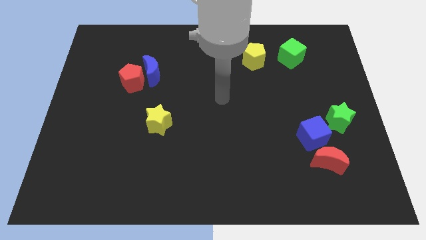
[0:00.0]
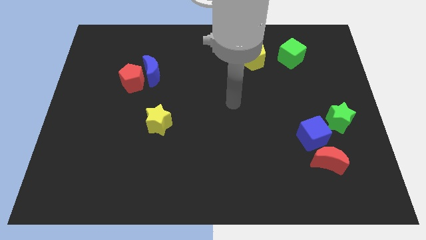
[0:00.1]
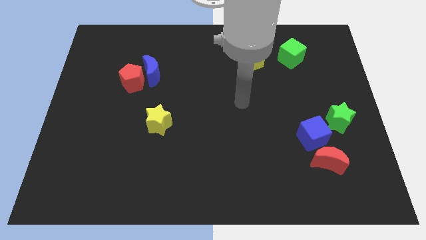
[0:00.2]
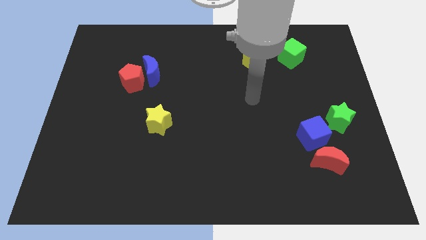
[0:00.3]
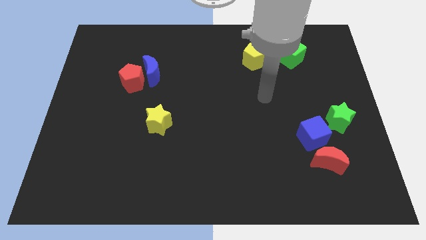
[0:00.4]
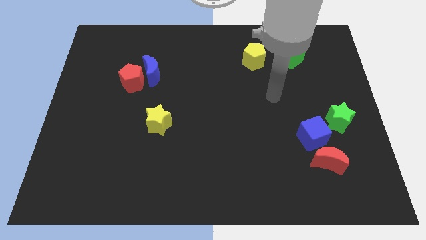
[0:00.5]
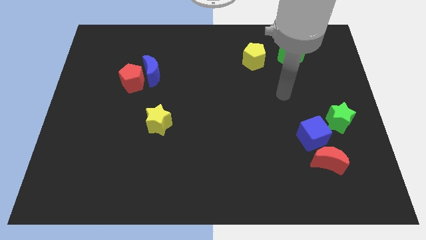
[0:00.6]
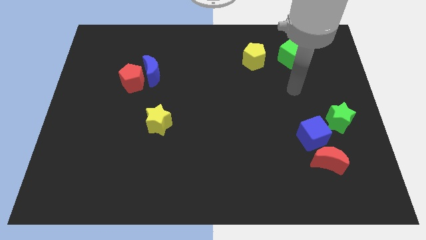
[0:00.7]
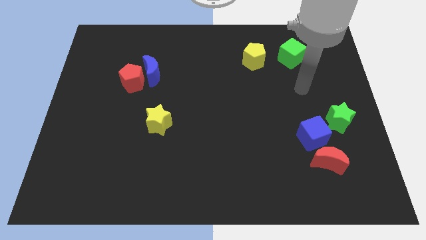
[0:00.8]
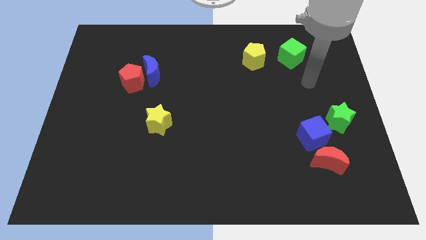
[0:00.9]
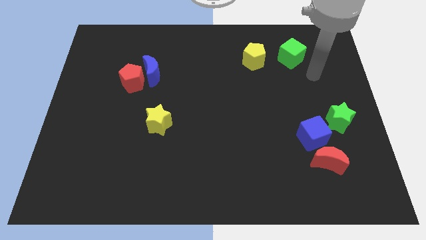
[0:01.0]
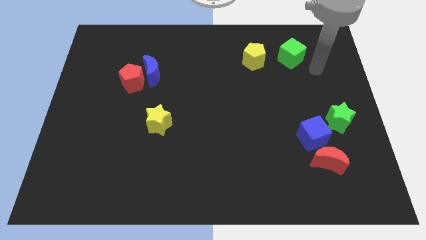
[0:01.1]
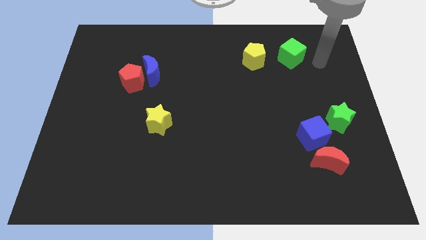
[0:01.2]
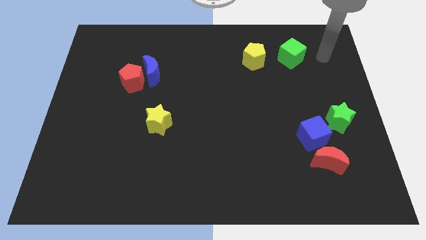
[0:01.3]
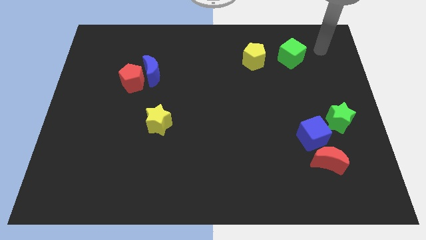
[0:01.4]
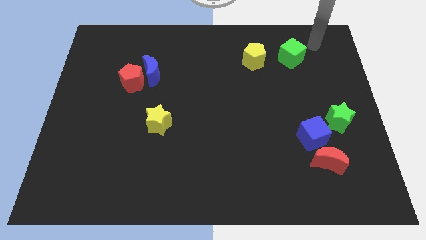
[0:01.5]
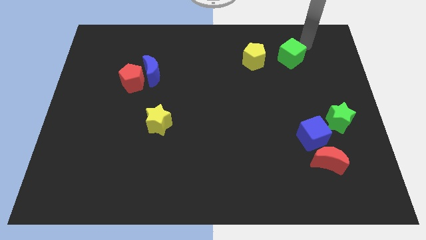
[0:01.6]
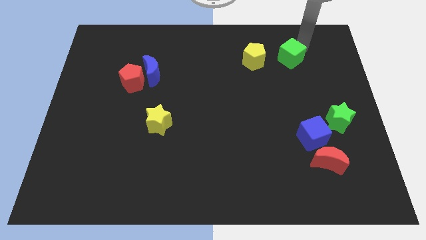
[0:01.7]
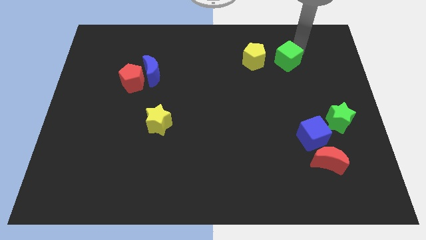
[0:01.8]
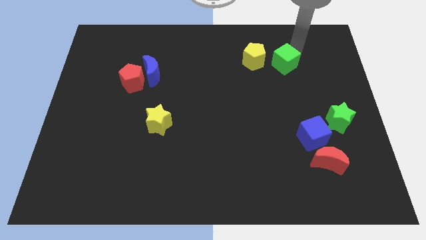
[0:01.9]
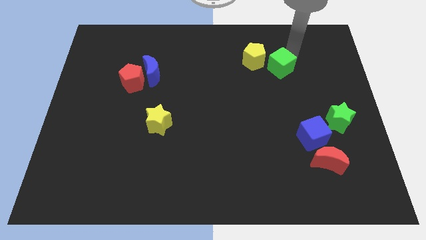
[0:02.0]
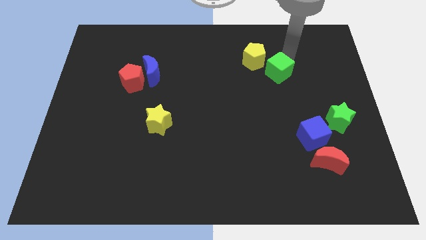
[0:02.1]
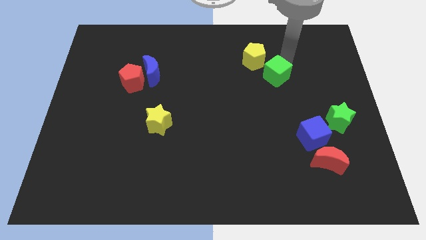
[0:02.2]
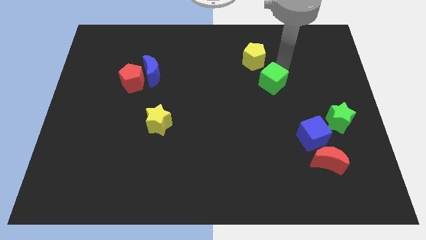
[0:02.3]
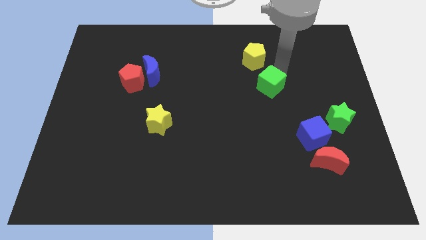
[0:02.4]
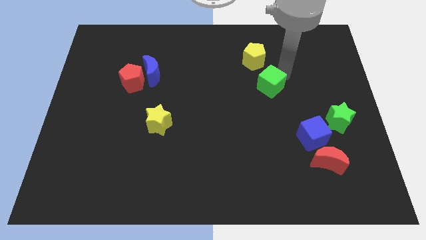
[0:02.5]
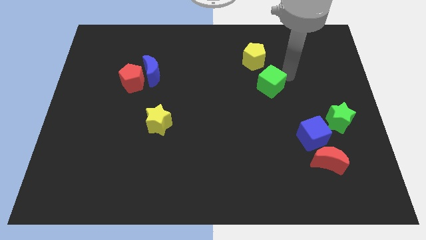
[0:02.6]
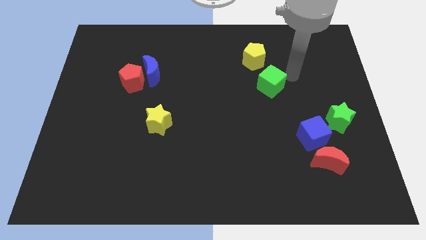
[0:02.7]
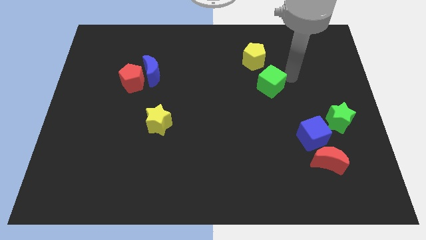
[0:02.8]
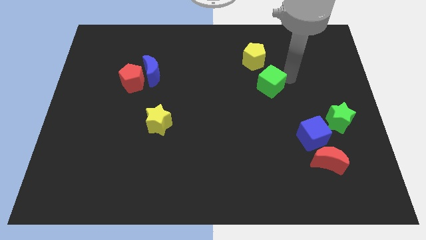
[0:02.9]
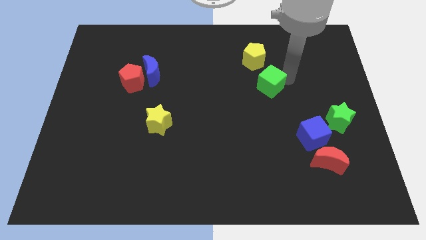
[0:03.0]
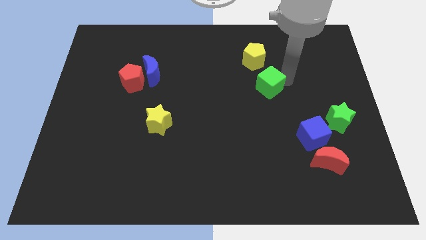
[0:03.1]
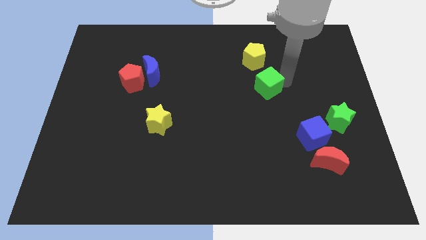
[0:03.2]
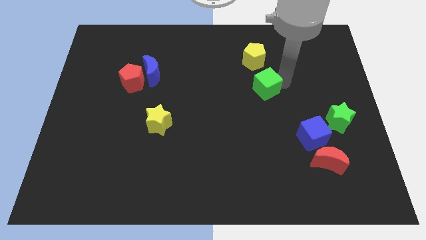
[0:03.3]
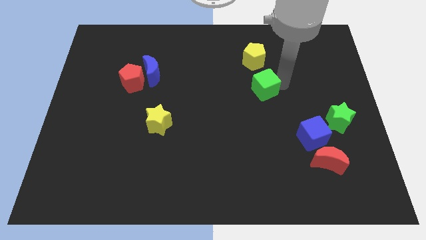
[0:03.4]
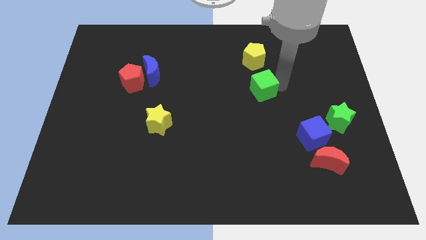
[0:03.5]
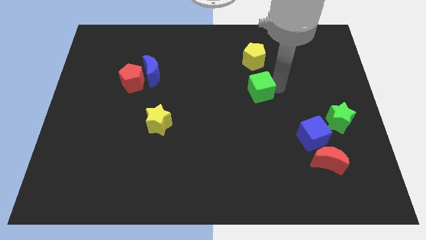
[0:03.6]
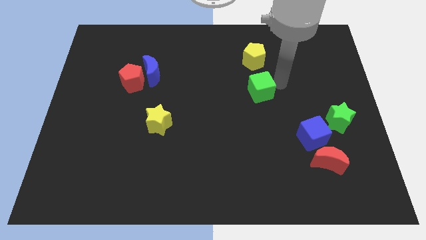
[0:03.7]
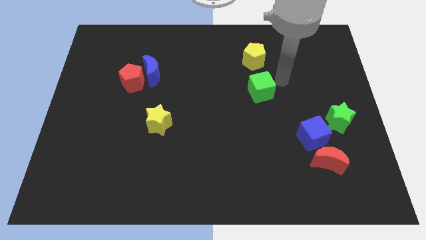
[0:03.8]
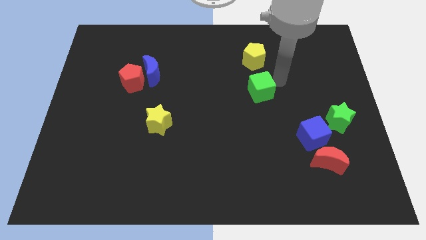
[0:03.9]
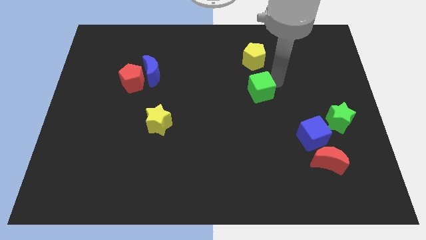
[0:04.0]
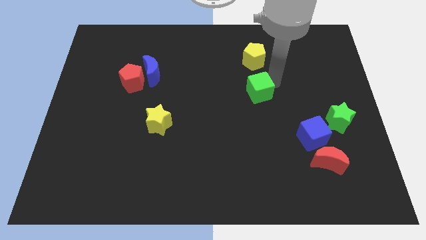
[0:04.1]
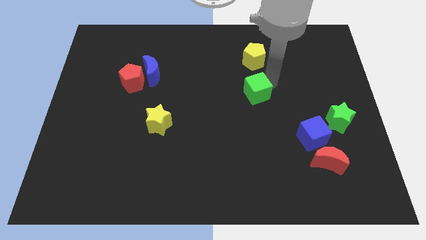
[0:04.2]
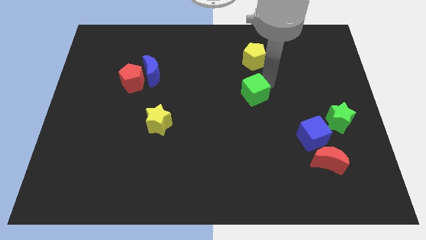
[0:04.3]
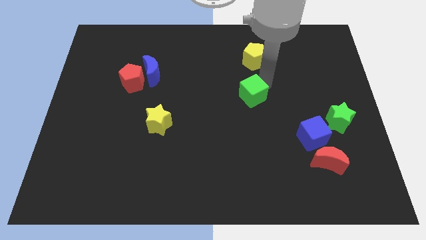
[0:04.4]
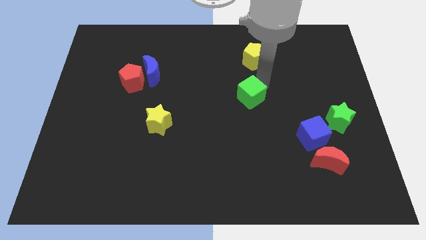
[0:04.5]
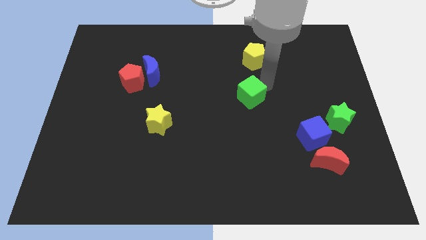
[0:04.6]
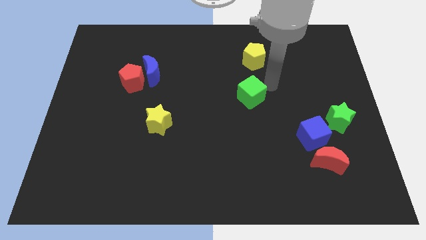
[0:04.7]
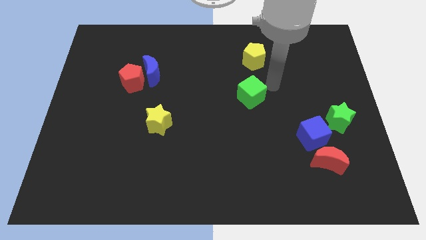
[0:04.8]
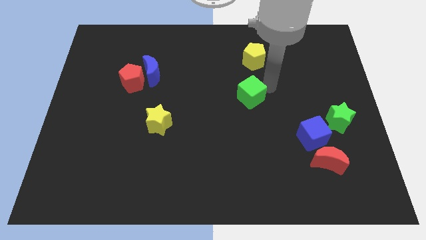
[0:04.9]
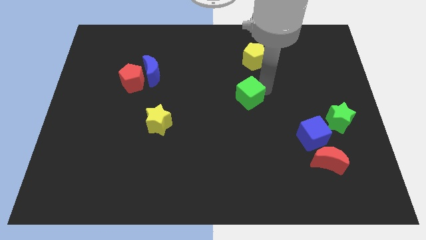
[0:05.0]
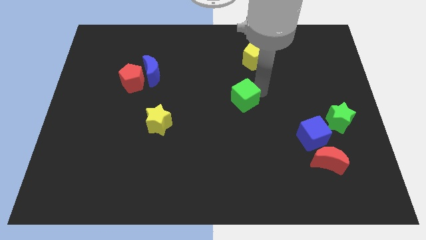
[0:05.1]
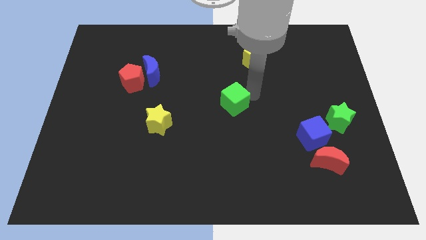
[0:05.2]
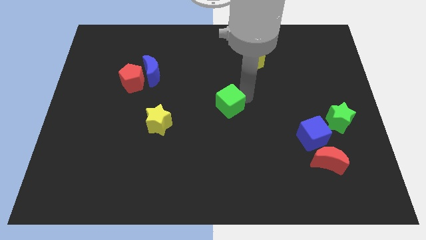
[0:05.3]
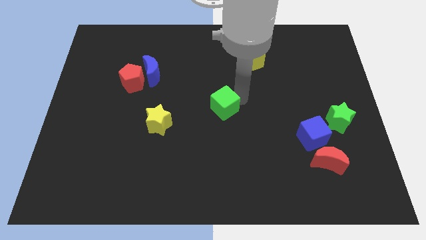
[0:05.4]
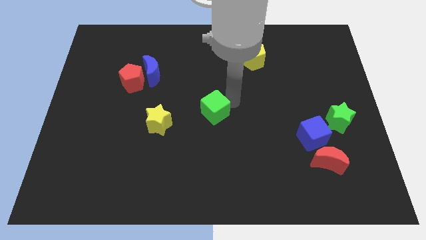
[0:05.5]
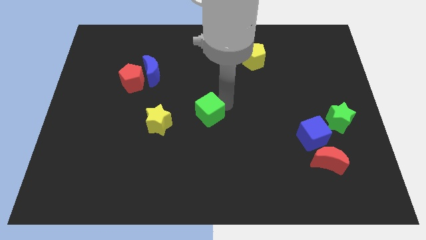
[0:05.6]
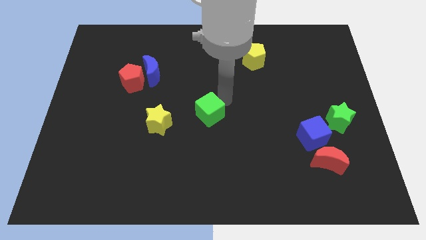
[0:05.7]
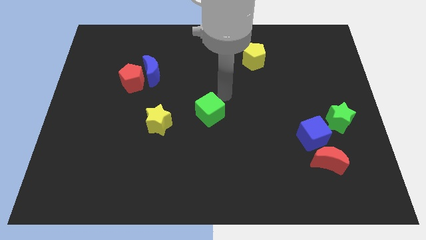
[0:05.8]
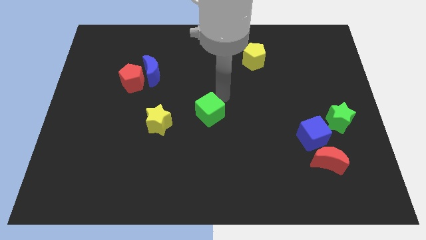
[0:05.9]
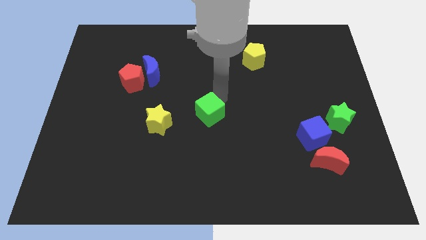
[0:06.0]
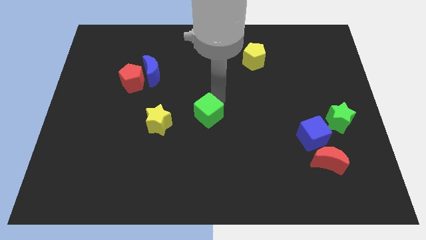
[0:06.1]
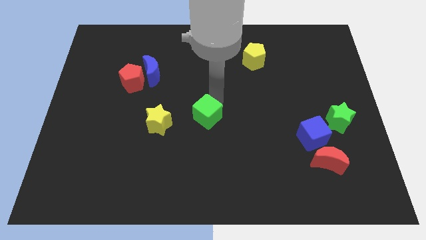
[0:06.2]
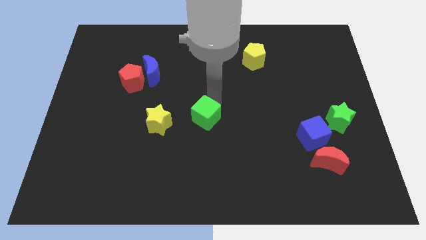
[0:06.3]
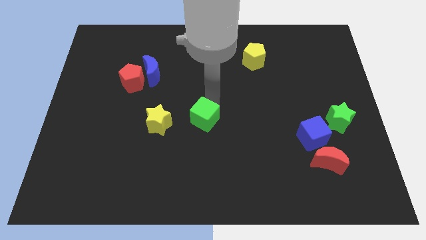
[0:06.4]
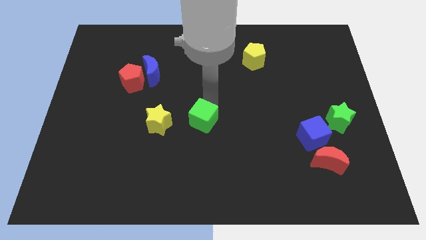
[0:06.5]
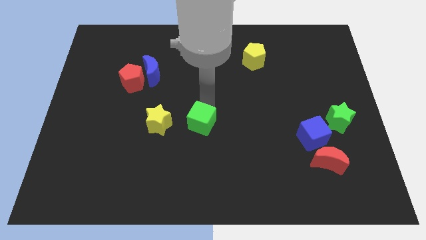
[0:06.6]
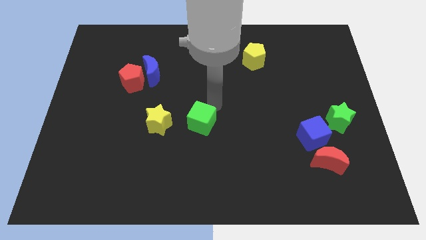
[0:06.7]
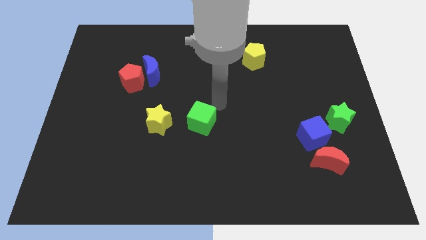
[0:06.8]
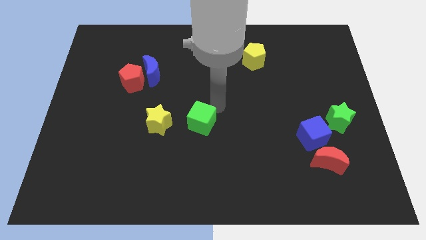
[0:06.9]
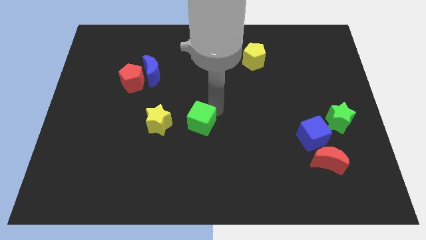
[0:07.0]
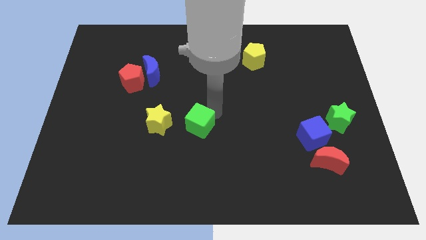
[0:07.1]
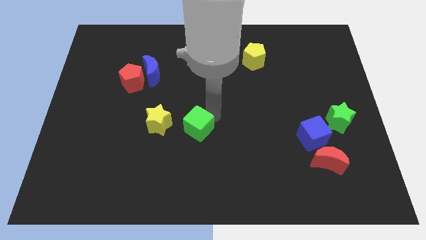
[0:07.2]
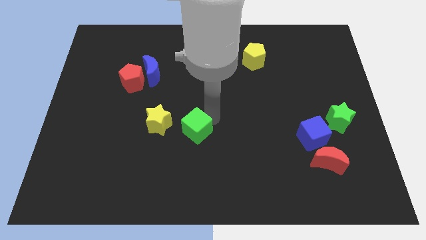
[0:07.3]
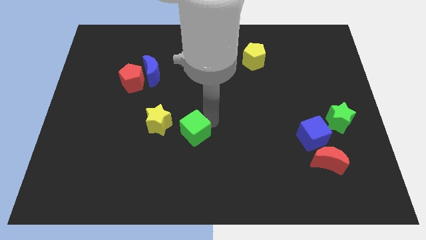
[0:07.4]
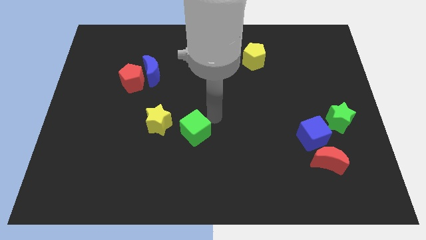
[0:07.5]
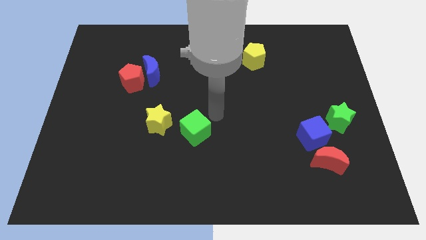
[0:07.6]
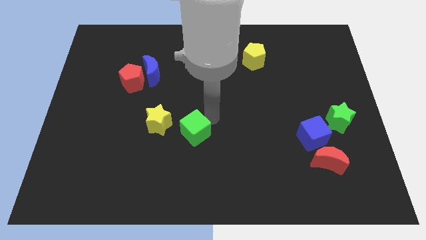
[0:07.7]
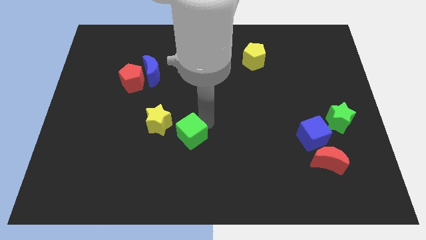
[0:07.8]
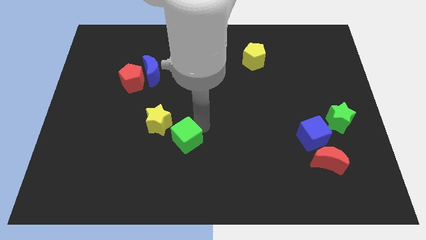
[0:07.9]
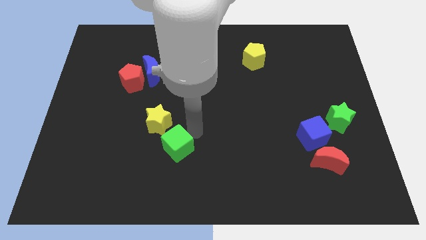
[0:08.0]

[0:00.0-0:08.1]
slide the green cube to the bottom of the yellow star
